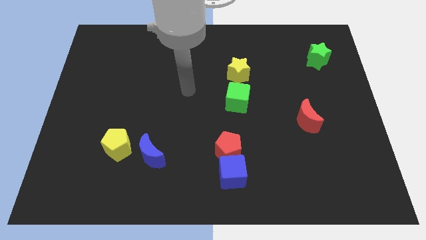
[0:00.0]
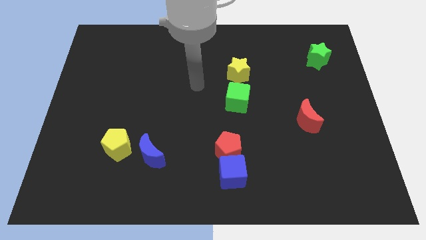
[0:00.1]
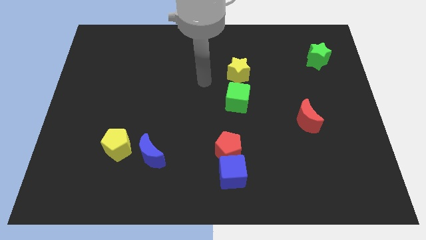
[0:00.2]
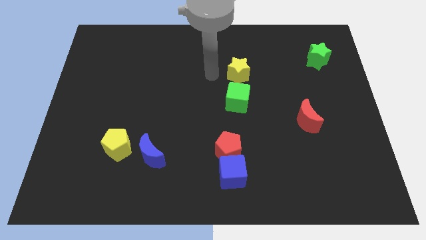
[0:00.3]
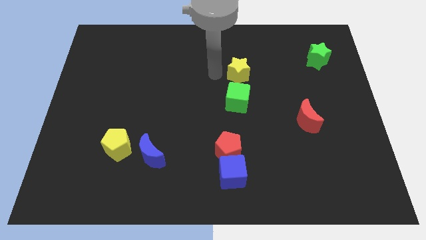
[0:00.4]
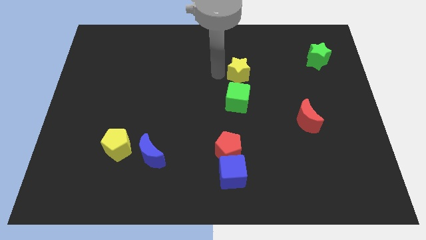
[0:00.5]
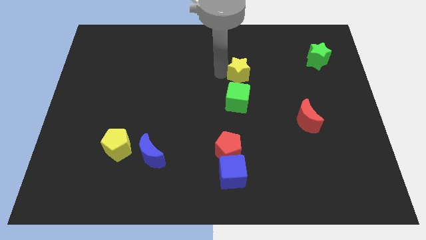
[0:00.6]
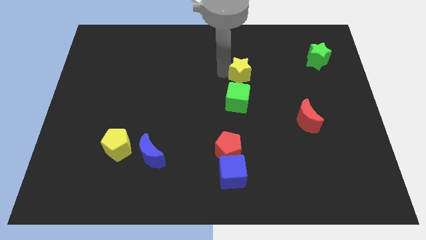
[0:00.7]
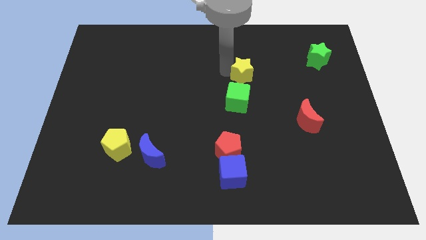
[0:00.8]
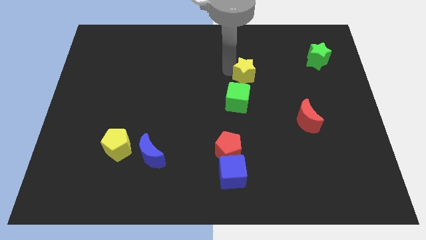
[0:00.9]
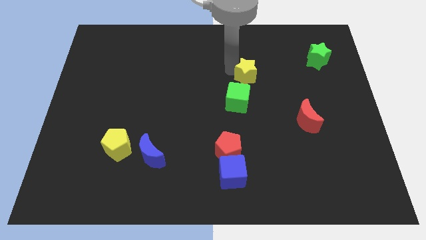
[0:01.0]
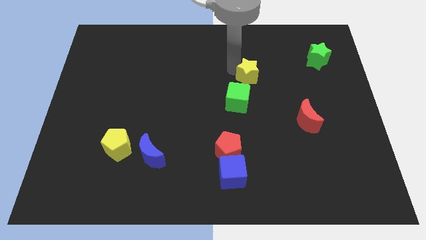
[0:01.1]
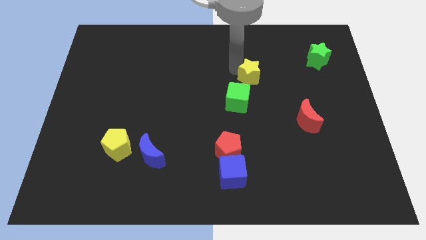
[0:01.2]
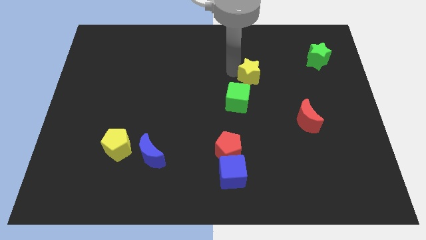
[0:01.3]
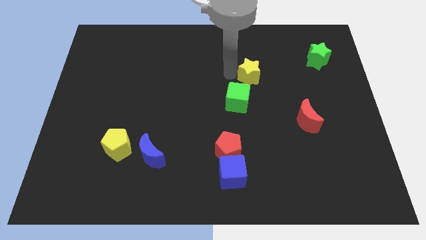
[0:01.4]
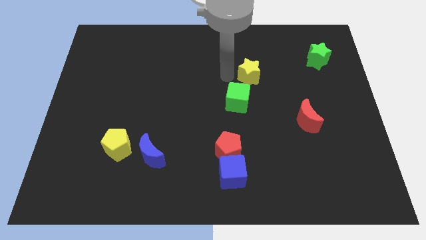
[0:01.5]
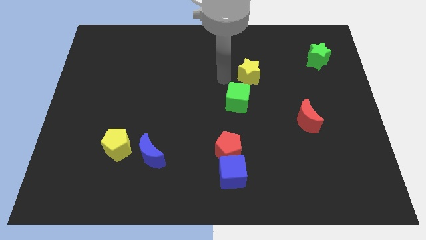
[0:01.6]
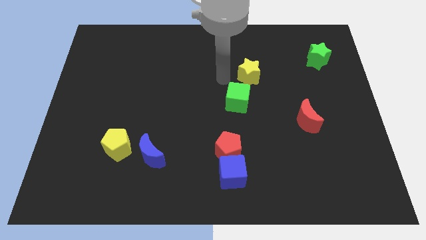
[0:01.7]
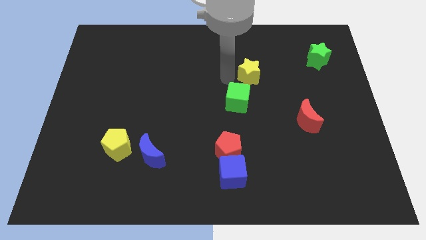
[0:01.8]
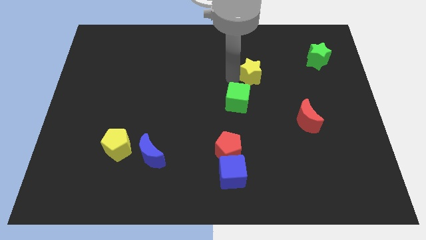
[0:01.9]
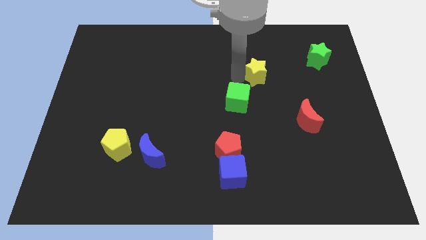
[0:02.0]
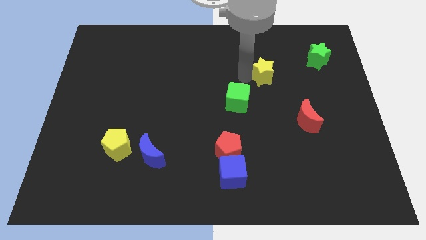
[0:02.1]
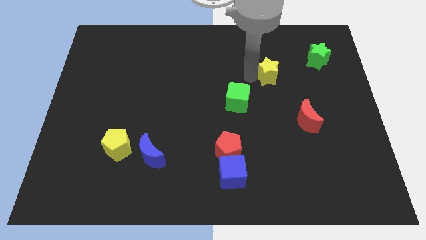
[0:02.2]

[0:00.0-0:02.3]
slide the yellow star to the right somewhat

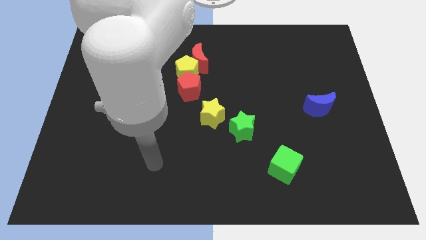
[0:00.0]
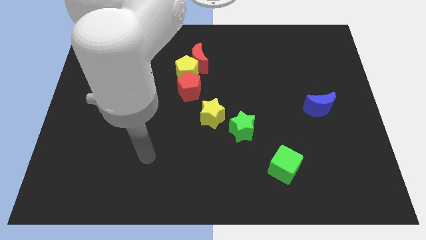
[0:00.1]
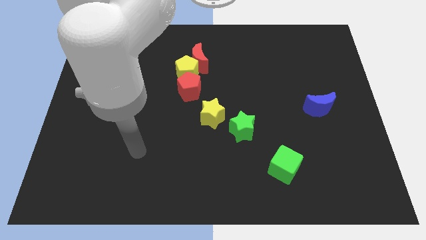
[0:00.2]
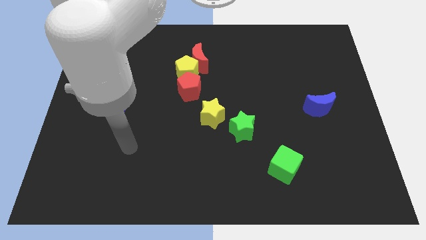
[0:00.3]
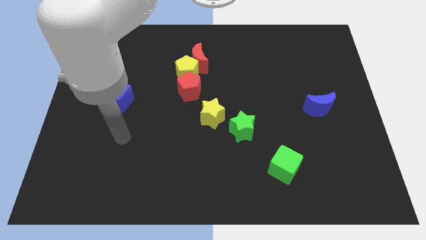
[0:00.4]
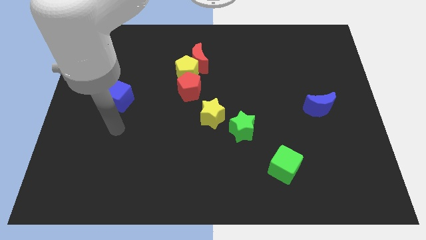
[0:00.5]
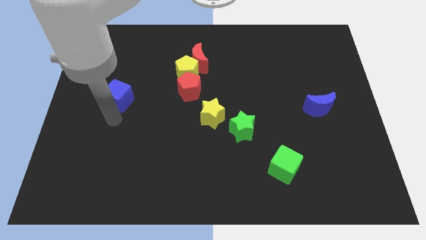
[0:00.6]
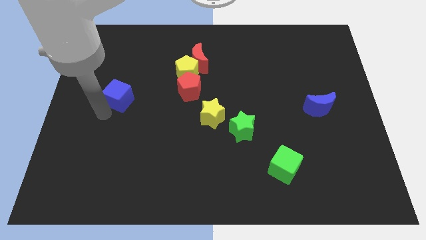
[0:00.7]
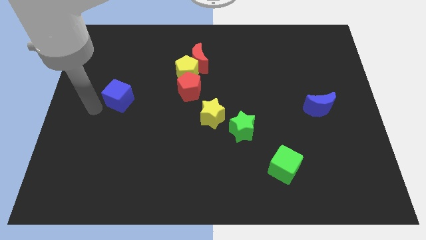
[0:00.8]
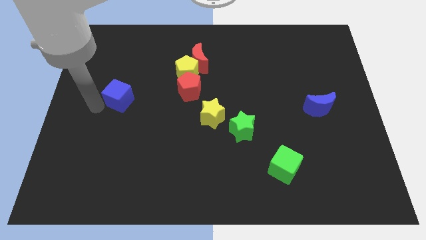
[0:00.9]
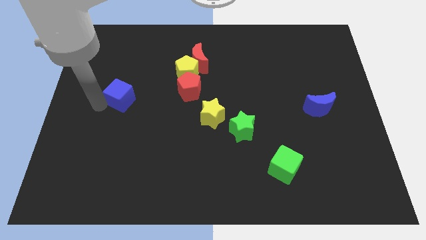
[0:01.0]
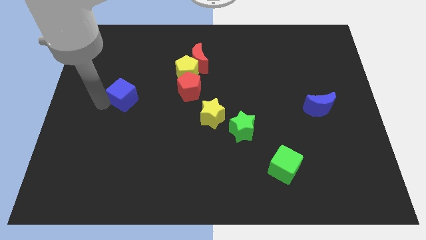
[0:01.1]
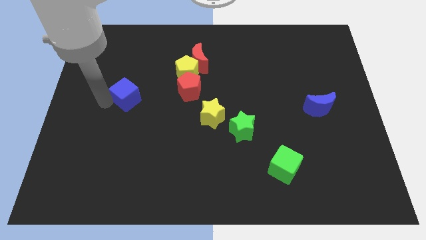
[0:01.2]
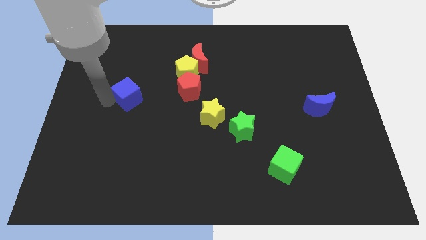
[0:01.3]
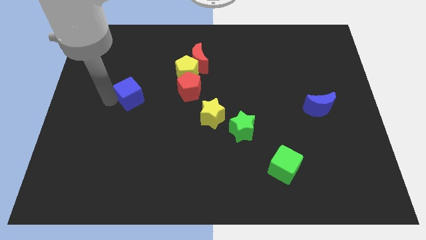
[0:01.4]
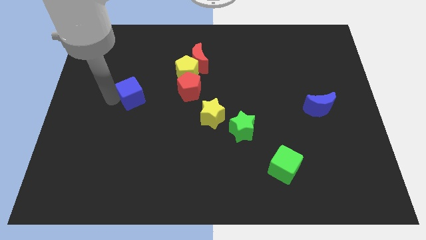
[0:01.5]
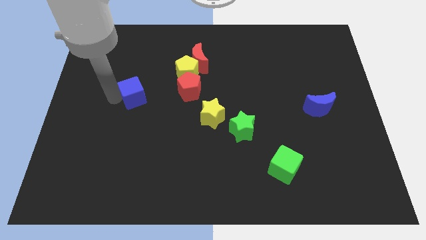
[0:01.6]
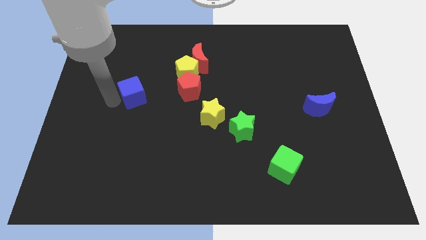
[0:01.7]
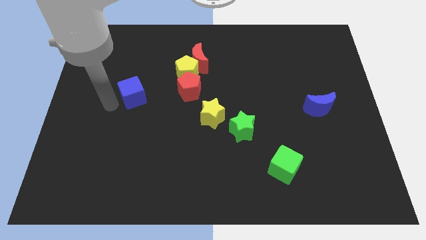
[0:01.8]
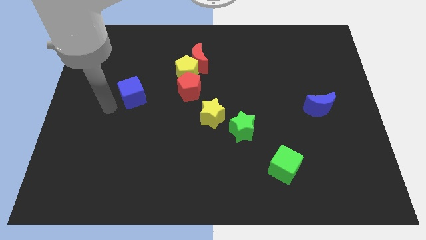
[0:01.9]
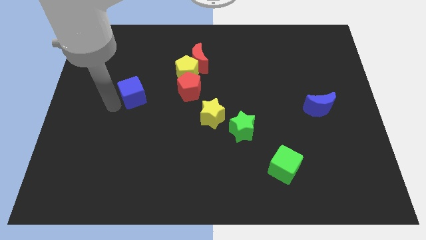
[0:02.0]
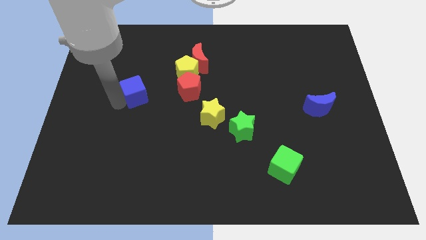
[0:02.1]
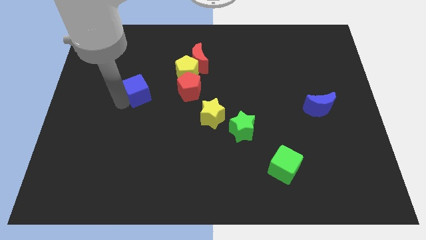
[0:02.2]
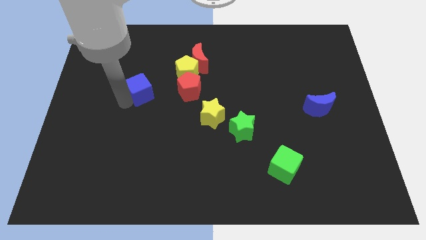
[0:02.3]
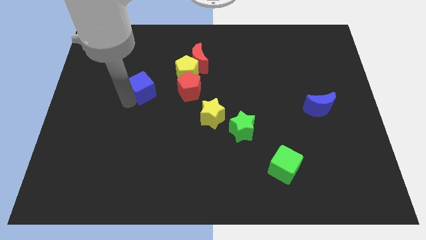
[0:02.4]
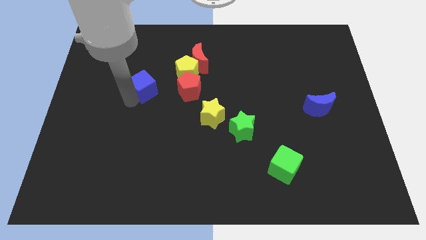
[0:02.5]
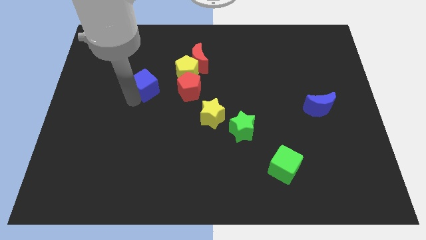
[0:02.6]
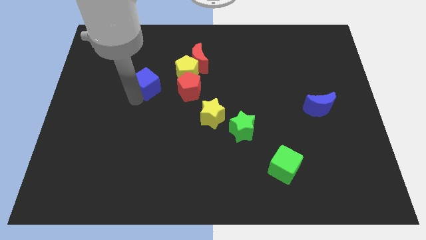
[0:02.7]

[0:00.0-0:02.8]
slightly push the blue cube diagonally up and to the right

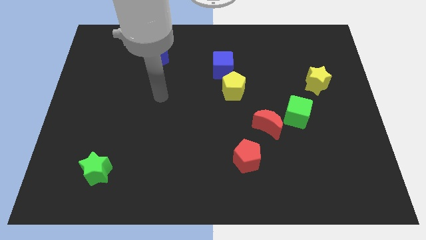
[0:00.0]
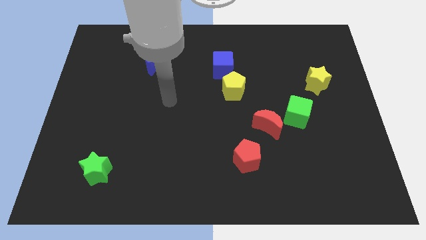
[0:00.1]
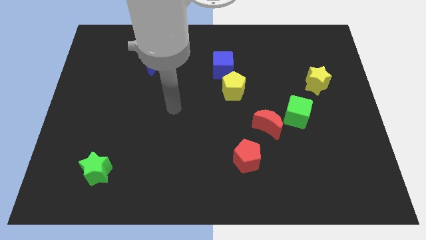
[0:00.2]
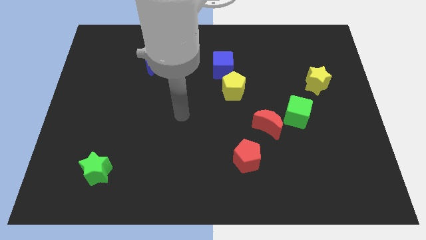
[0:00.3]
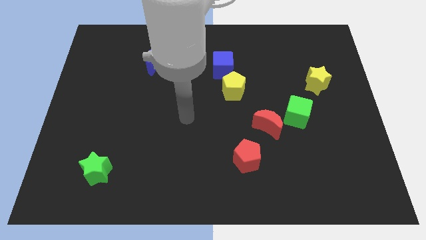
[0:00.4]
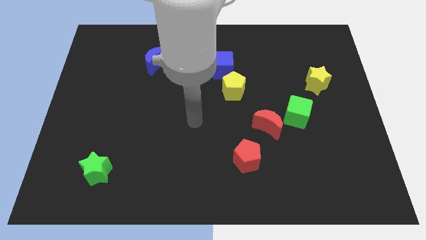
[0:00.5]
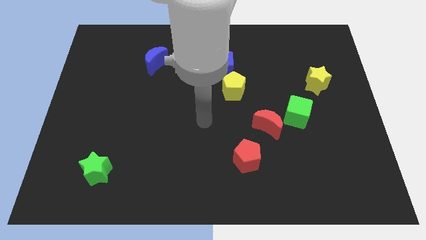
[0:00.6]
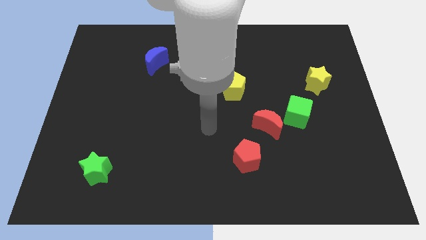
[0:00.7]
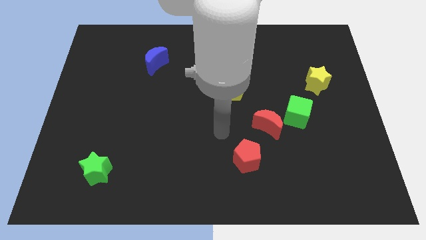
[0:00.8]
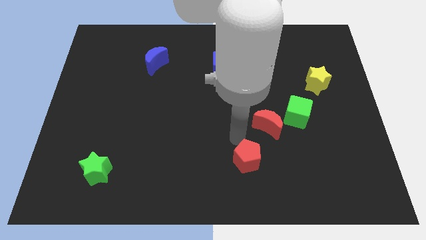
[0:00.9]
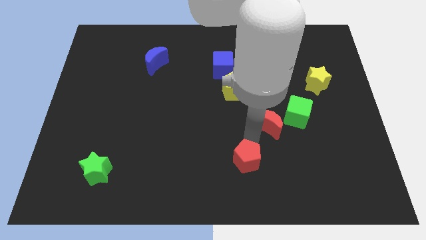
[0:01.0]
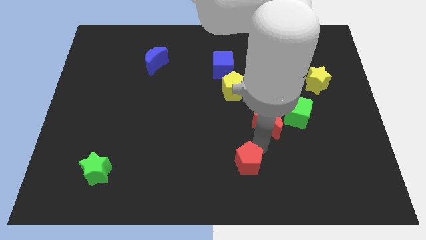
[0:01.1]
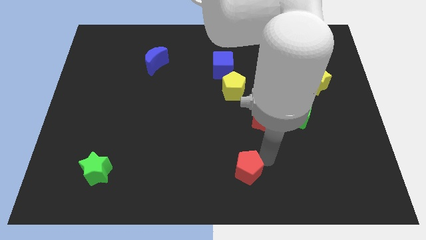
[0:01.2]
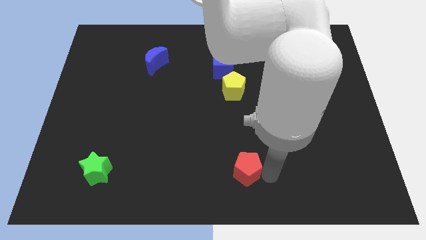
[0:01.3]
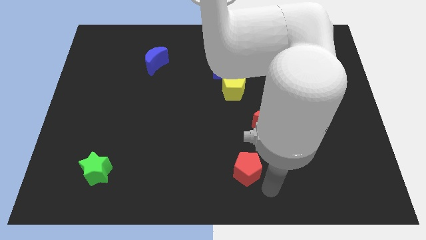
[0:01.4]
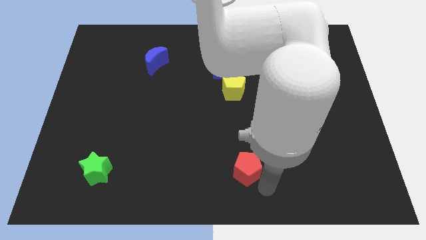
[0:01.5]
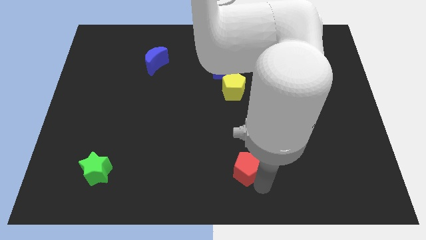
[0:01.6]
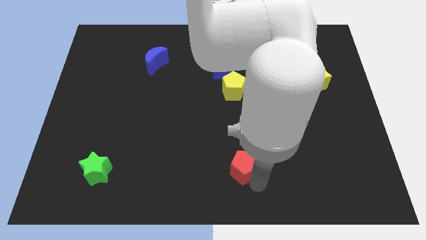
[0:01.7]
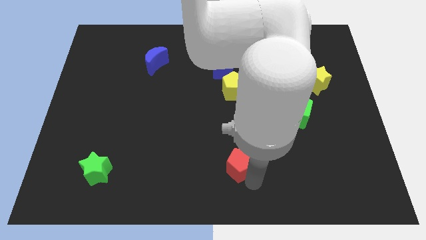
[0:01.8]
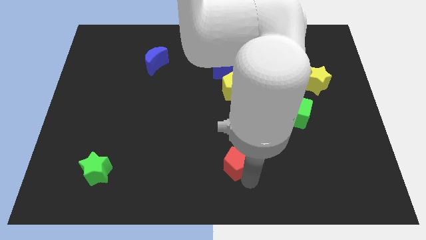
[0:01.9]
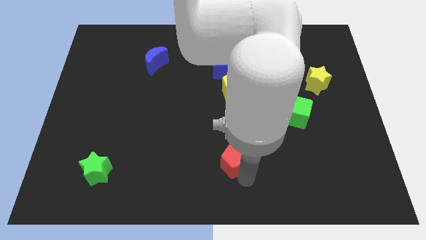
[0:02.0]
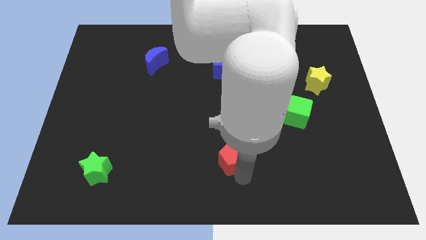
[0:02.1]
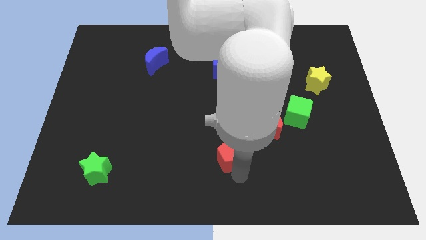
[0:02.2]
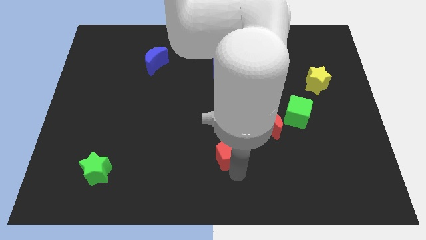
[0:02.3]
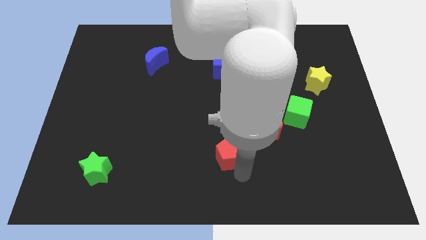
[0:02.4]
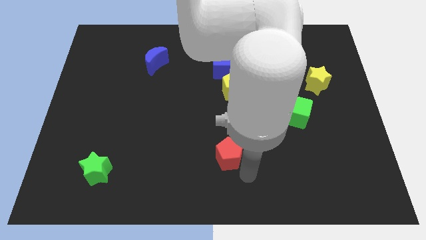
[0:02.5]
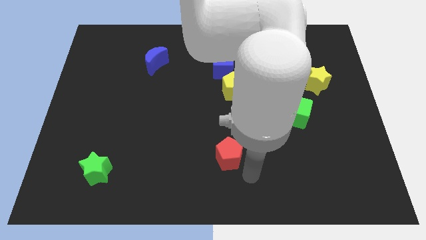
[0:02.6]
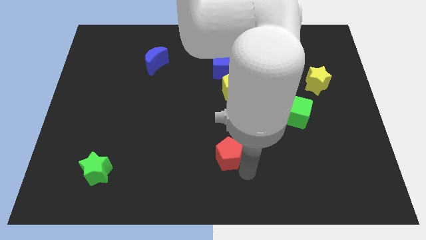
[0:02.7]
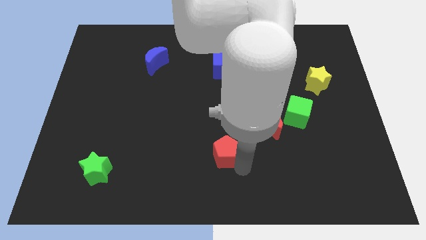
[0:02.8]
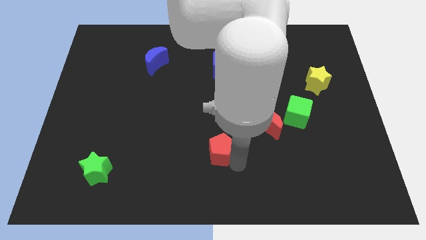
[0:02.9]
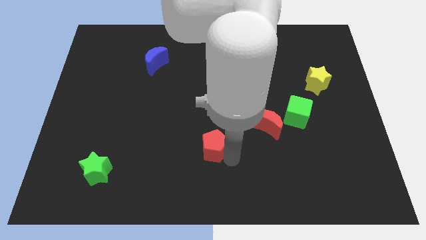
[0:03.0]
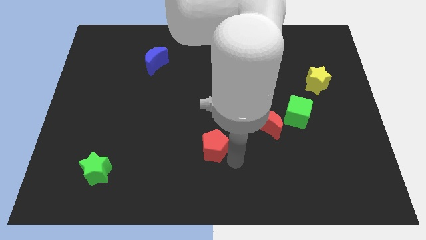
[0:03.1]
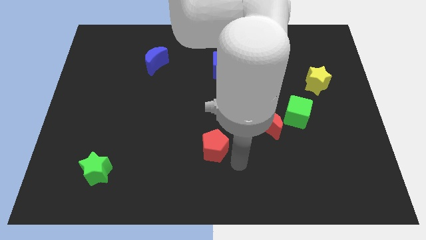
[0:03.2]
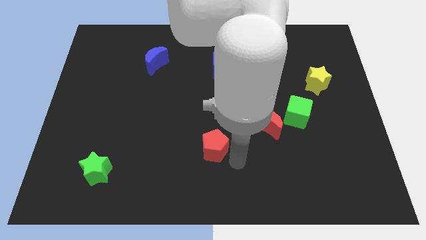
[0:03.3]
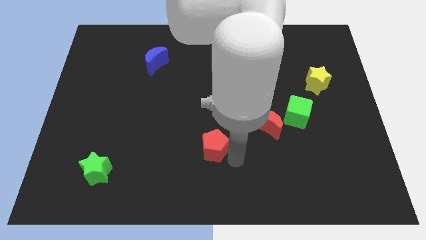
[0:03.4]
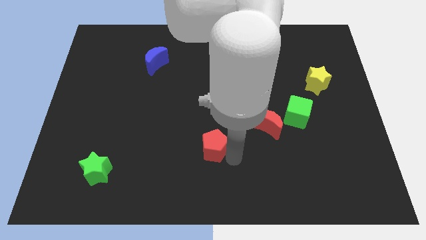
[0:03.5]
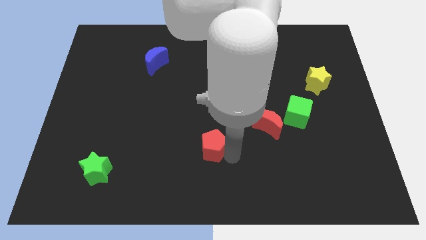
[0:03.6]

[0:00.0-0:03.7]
slightly push the red pentagon upwards and to the left
